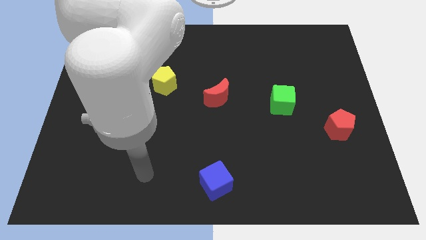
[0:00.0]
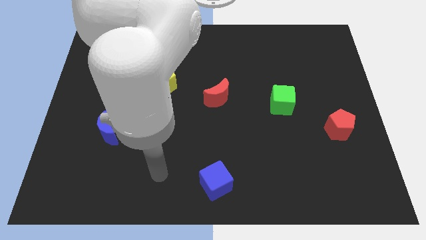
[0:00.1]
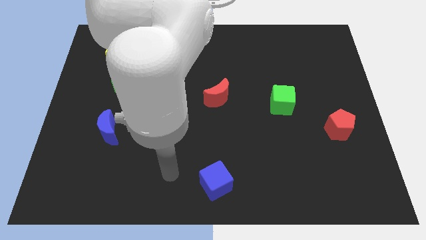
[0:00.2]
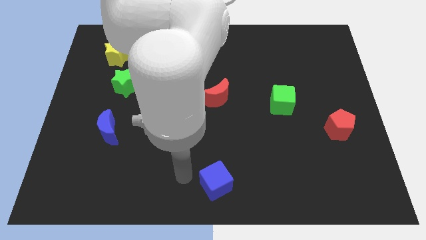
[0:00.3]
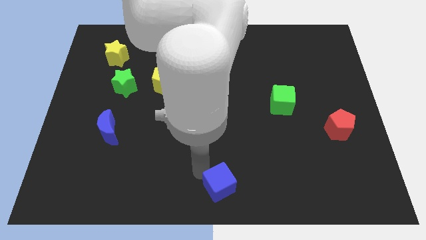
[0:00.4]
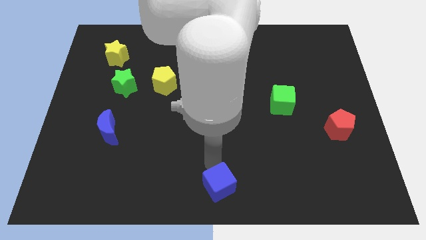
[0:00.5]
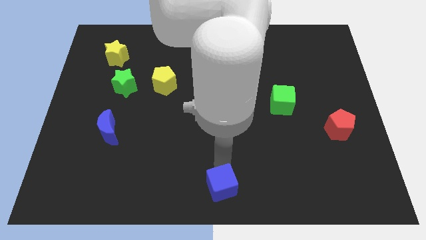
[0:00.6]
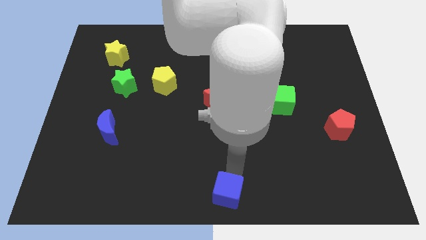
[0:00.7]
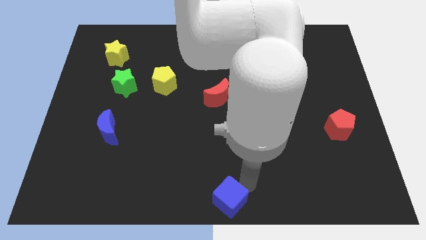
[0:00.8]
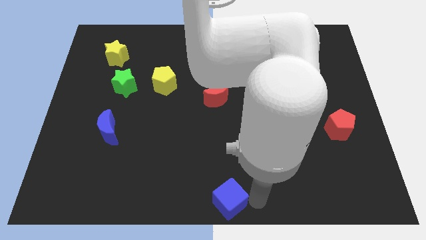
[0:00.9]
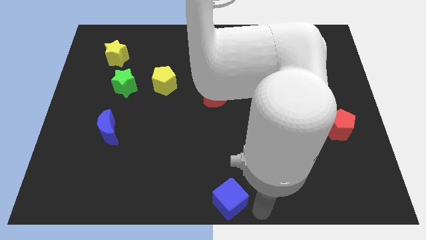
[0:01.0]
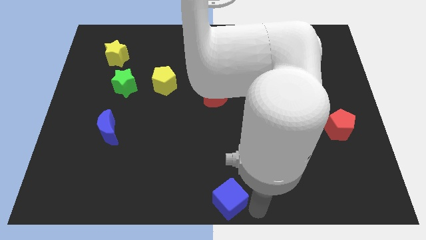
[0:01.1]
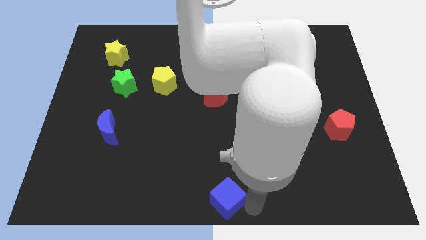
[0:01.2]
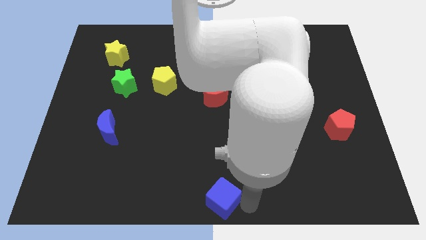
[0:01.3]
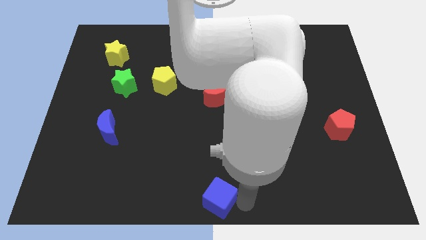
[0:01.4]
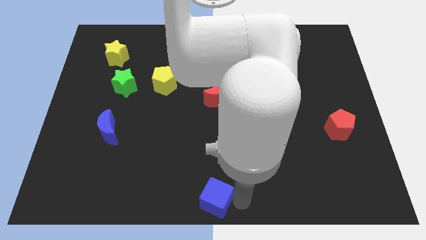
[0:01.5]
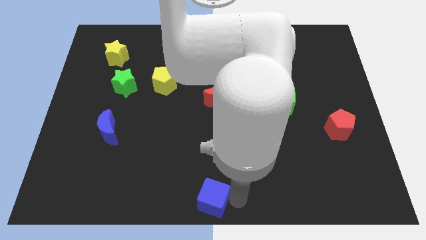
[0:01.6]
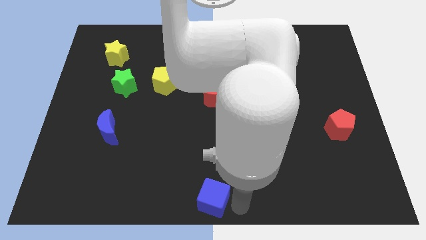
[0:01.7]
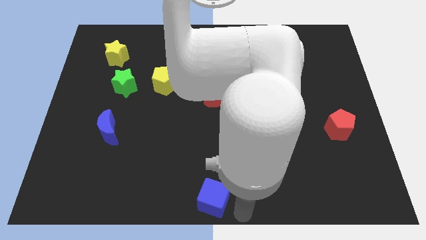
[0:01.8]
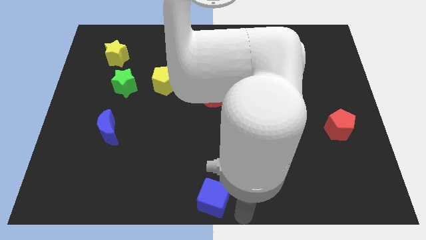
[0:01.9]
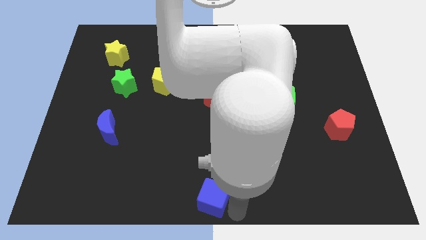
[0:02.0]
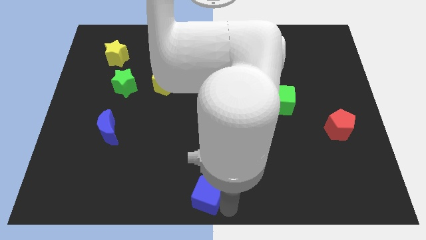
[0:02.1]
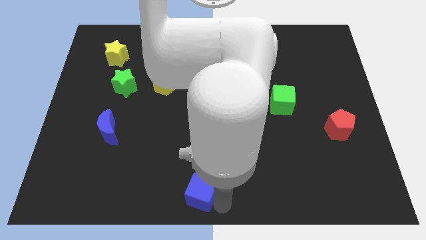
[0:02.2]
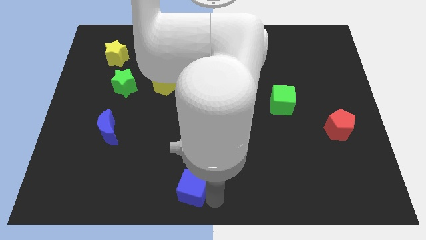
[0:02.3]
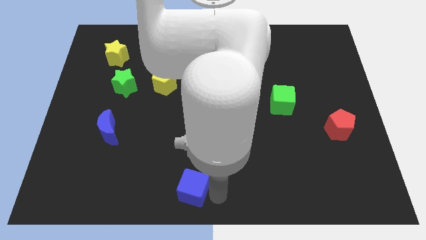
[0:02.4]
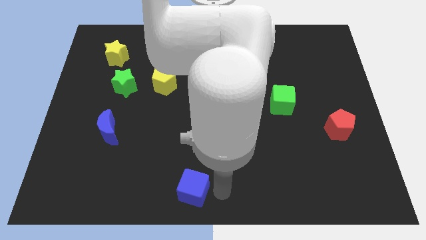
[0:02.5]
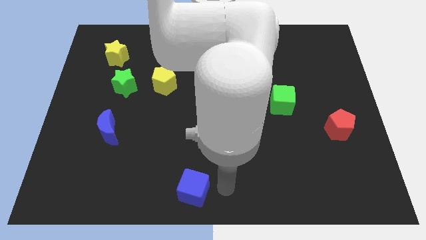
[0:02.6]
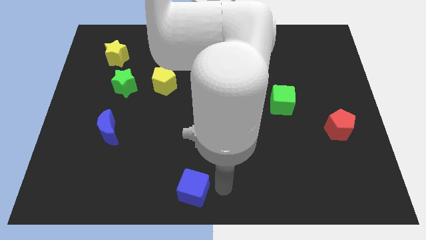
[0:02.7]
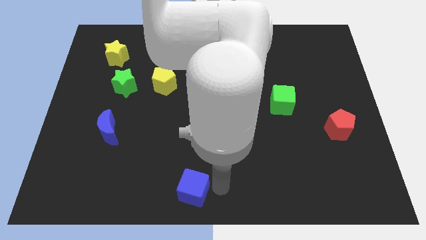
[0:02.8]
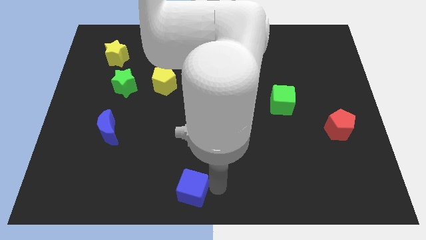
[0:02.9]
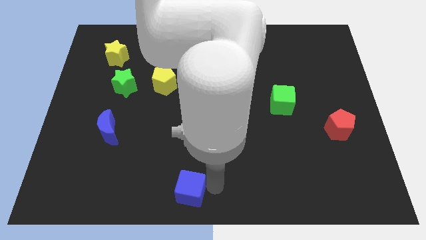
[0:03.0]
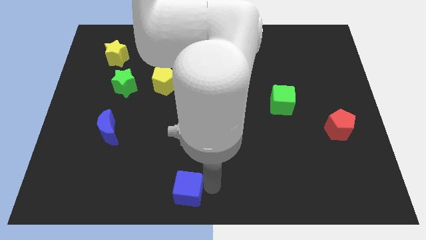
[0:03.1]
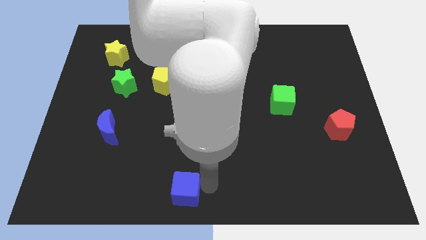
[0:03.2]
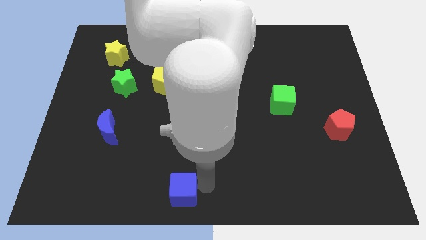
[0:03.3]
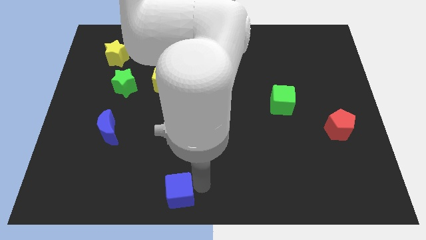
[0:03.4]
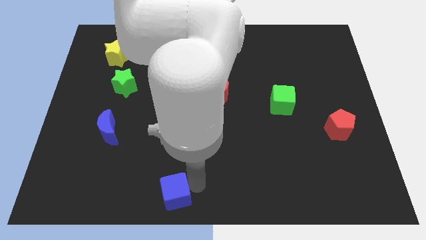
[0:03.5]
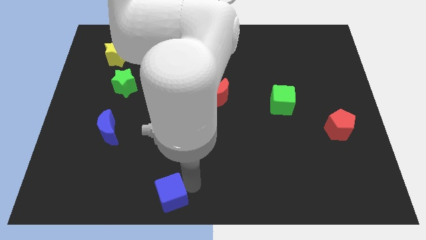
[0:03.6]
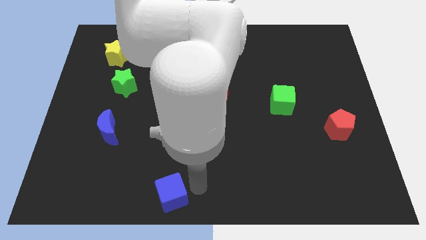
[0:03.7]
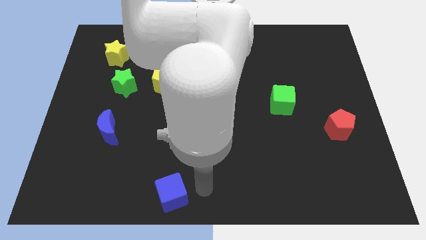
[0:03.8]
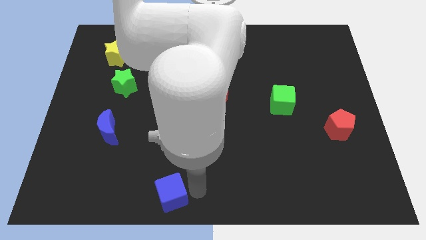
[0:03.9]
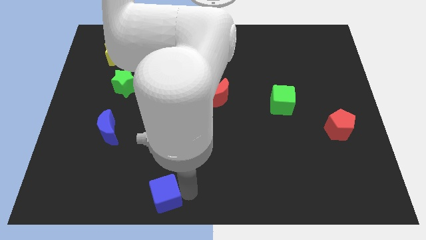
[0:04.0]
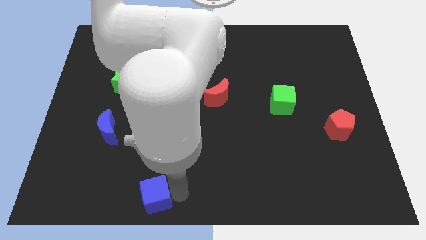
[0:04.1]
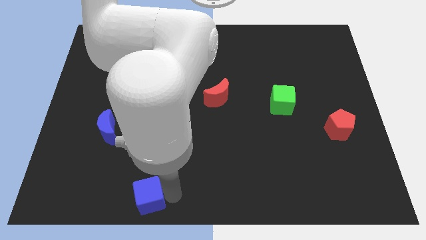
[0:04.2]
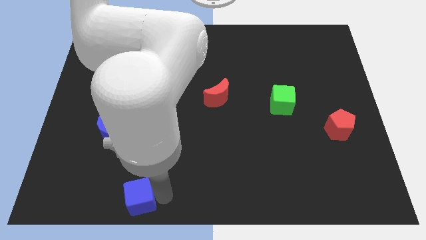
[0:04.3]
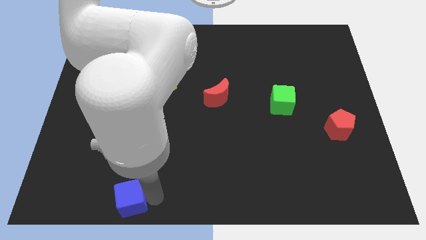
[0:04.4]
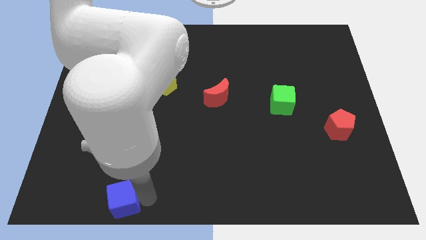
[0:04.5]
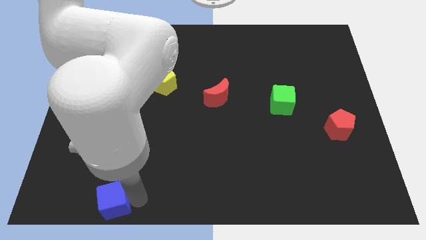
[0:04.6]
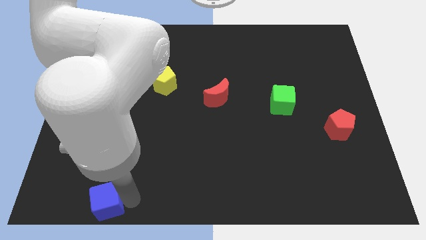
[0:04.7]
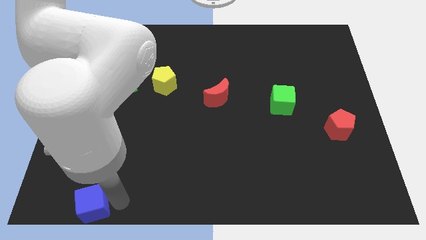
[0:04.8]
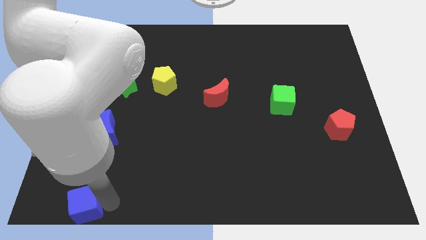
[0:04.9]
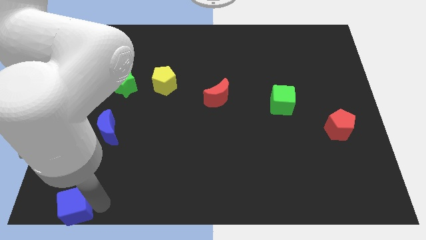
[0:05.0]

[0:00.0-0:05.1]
push the blue cube to the bottom left

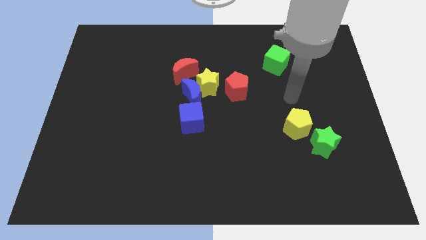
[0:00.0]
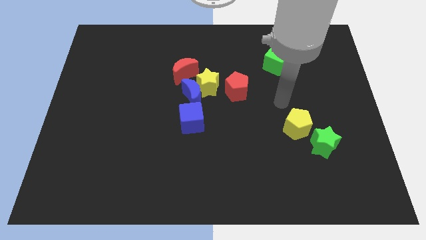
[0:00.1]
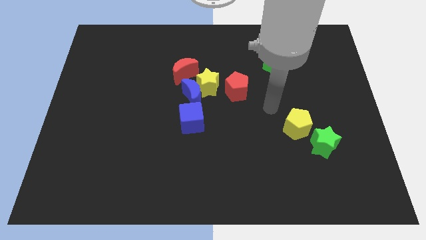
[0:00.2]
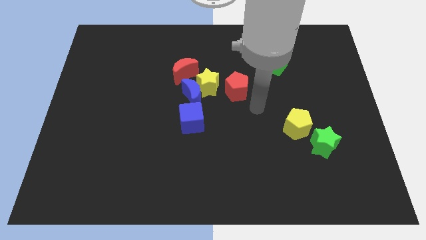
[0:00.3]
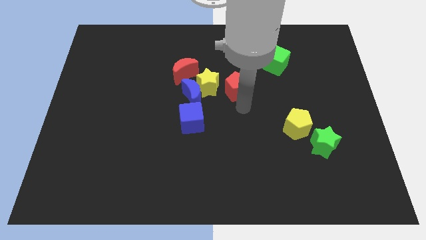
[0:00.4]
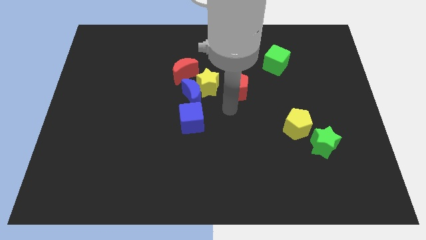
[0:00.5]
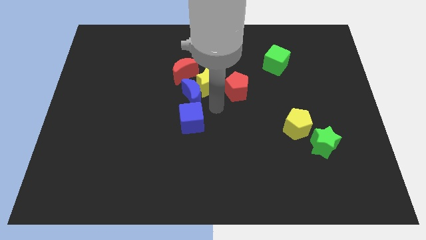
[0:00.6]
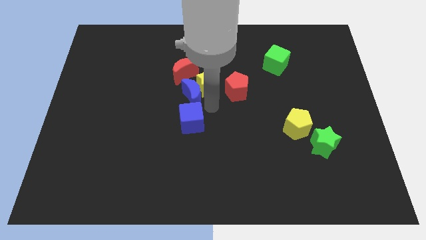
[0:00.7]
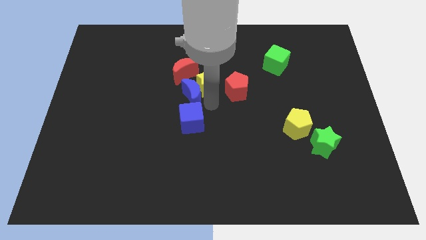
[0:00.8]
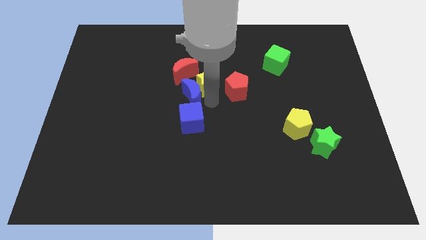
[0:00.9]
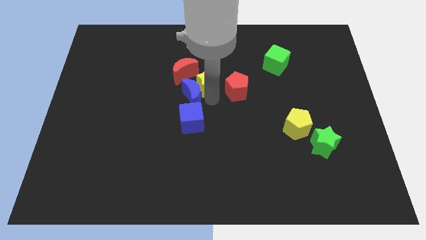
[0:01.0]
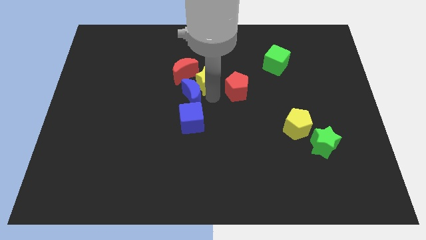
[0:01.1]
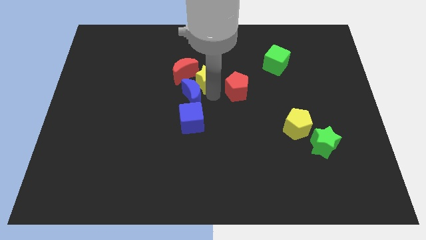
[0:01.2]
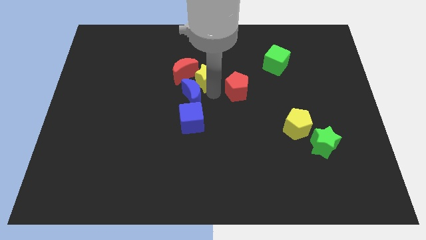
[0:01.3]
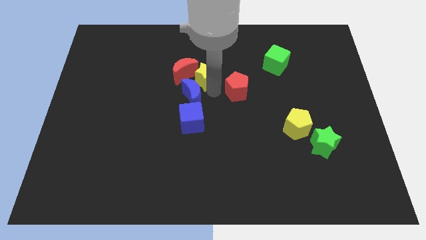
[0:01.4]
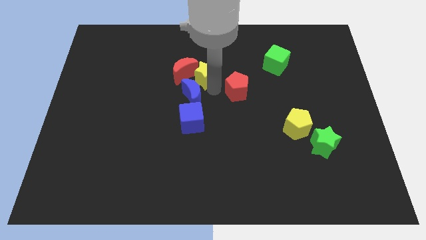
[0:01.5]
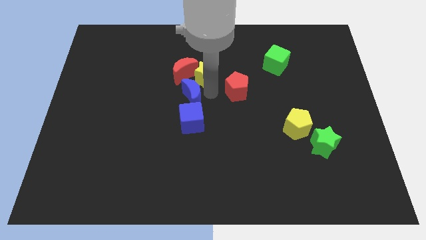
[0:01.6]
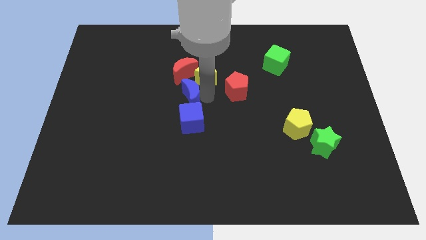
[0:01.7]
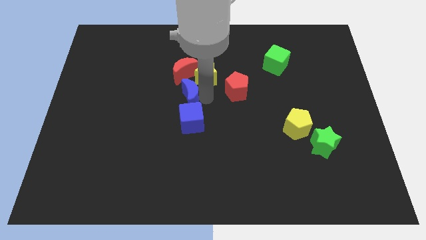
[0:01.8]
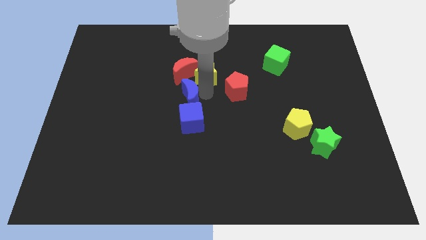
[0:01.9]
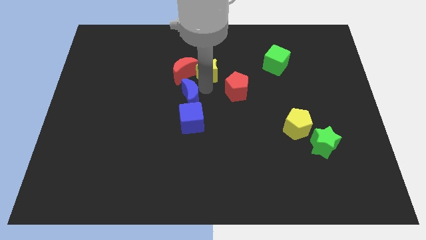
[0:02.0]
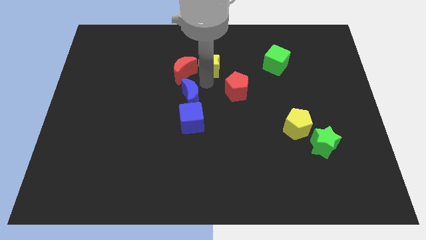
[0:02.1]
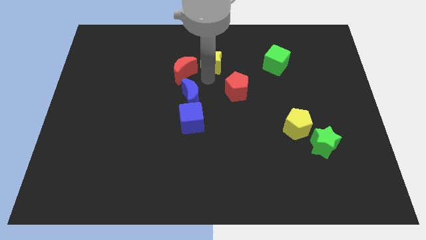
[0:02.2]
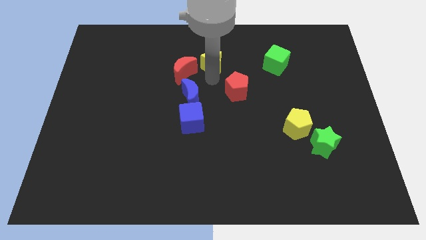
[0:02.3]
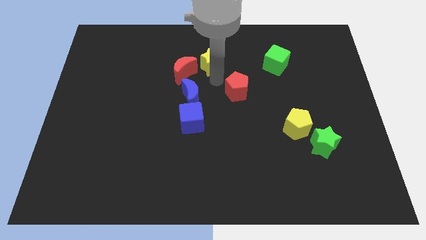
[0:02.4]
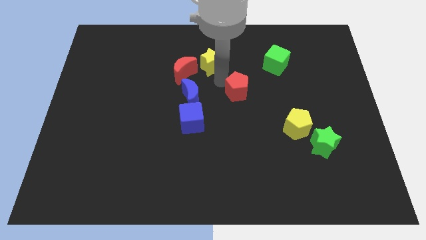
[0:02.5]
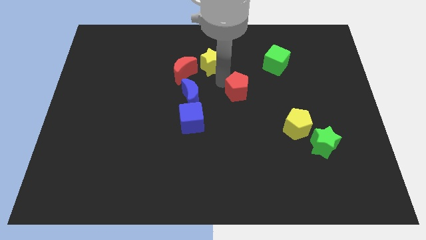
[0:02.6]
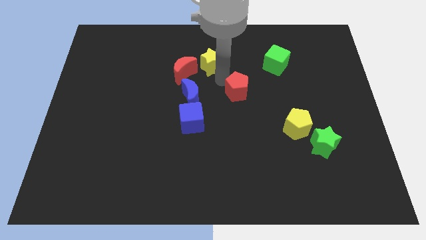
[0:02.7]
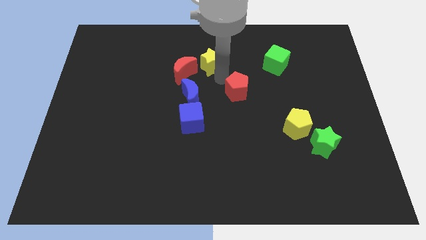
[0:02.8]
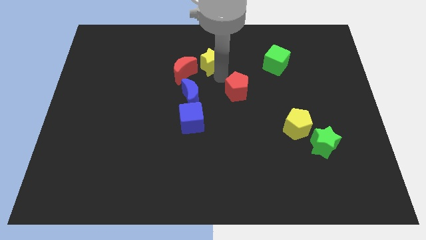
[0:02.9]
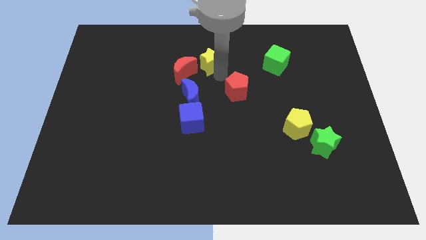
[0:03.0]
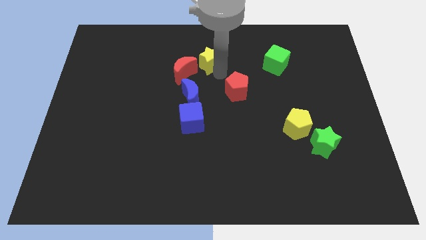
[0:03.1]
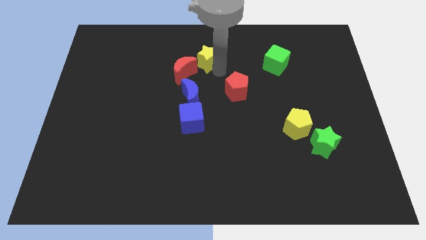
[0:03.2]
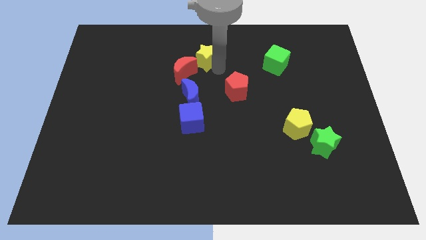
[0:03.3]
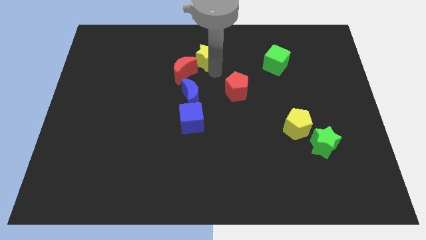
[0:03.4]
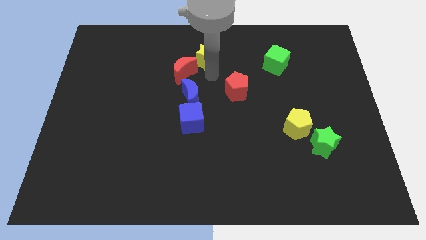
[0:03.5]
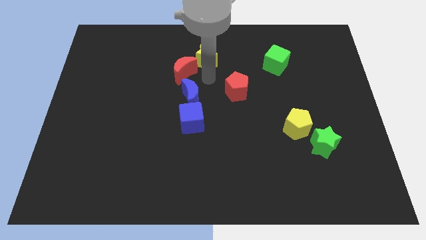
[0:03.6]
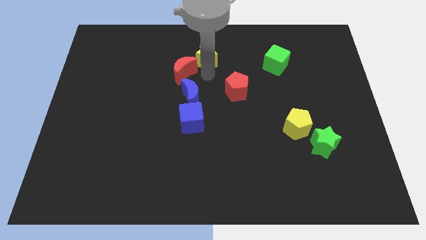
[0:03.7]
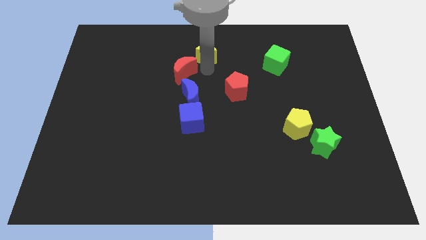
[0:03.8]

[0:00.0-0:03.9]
put the yellow star to the top
